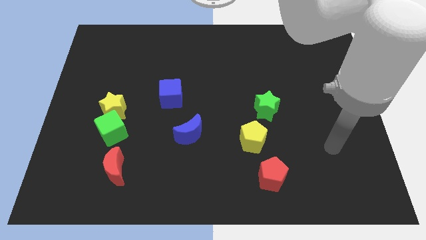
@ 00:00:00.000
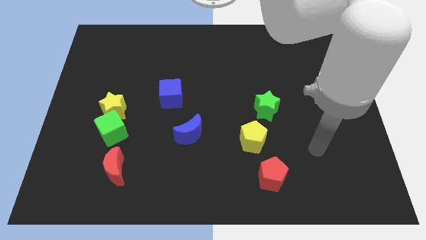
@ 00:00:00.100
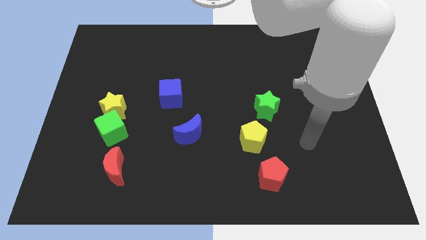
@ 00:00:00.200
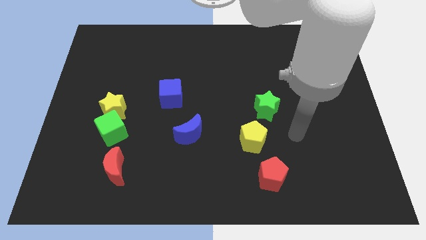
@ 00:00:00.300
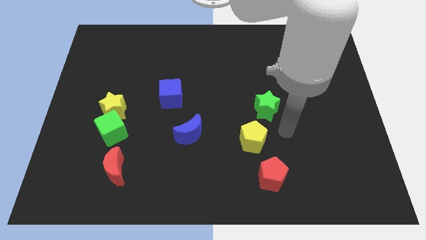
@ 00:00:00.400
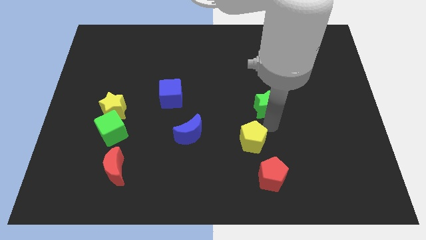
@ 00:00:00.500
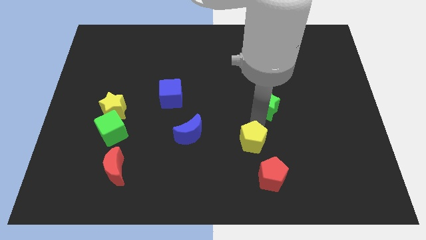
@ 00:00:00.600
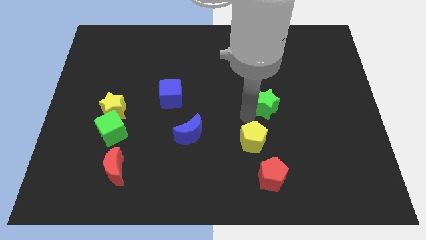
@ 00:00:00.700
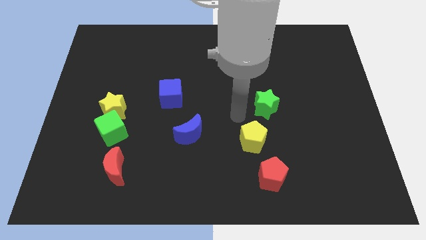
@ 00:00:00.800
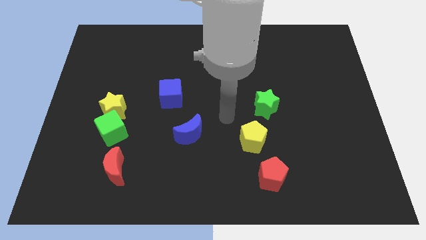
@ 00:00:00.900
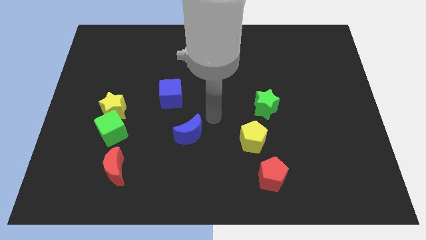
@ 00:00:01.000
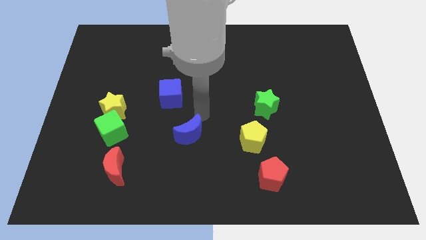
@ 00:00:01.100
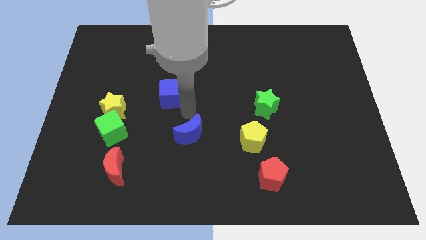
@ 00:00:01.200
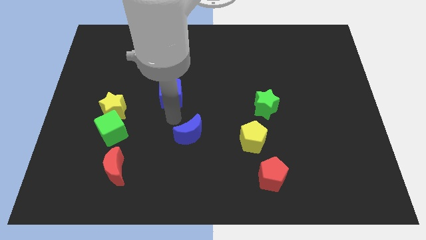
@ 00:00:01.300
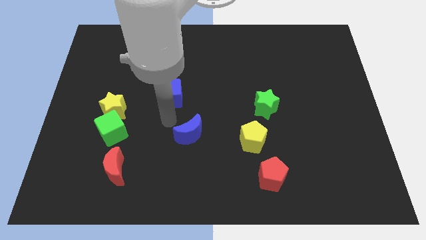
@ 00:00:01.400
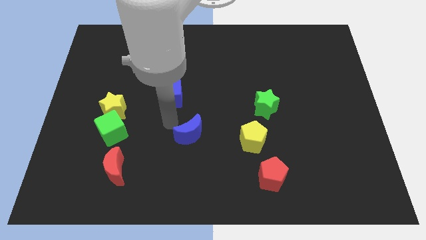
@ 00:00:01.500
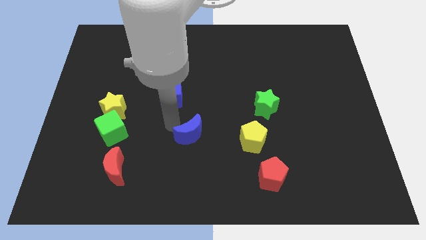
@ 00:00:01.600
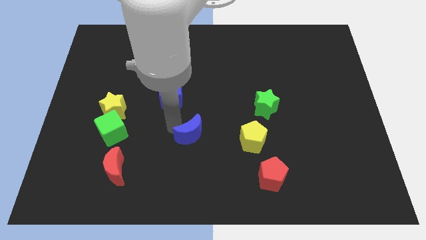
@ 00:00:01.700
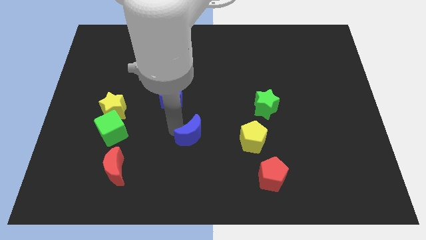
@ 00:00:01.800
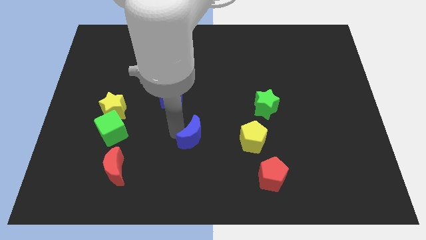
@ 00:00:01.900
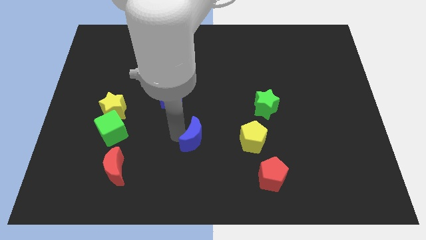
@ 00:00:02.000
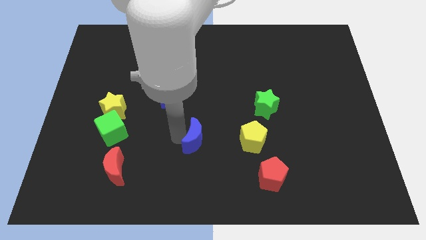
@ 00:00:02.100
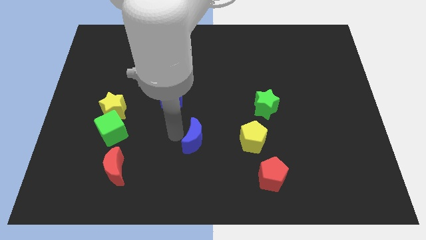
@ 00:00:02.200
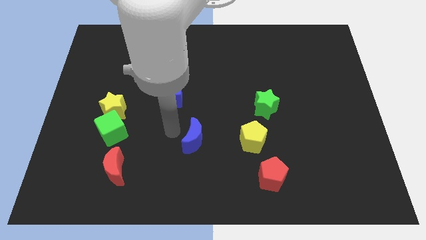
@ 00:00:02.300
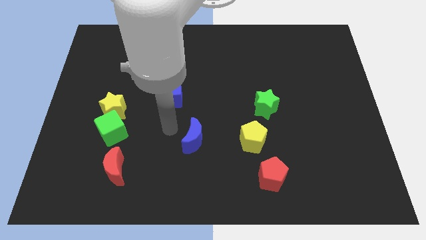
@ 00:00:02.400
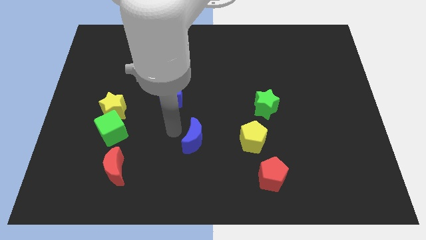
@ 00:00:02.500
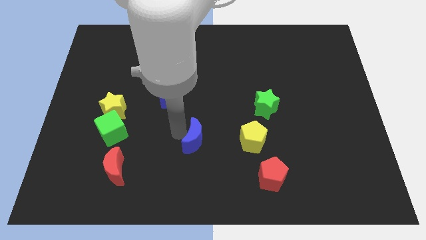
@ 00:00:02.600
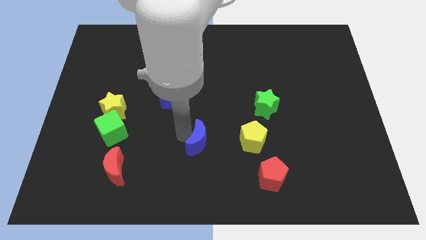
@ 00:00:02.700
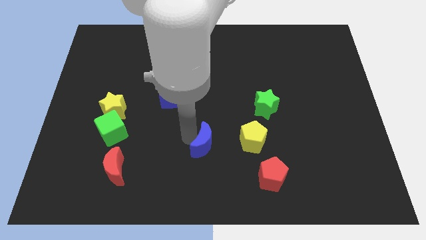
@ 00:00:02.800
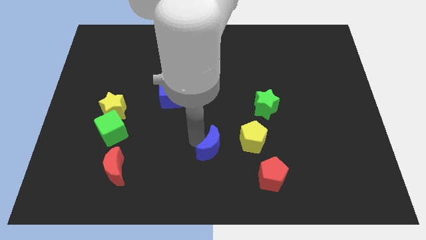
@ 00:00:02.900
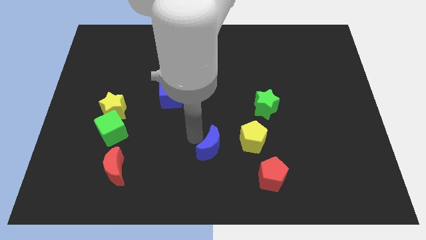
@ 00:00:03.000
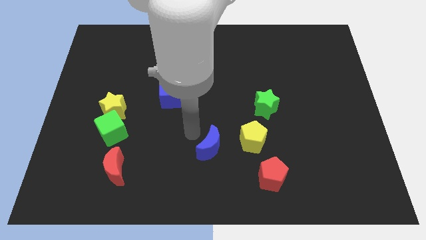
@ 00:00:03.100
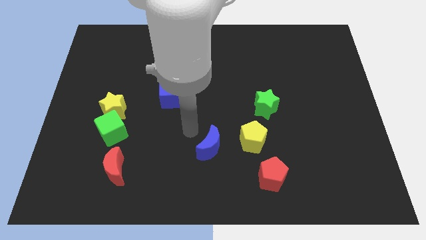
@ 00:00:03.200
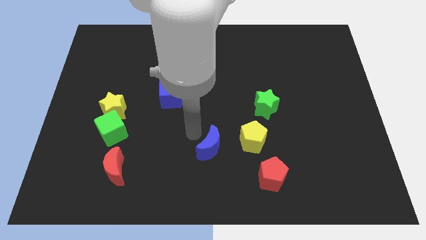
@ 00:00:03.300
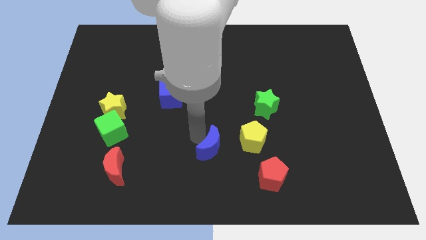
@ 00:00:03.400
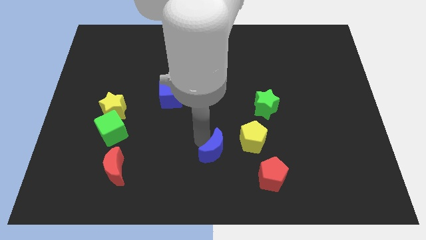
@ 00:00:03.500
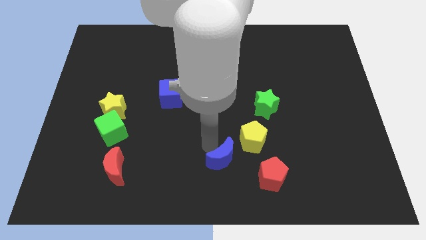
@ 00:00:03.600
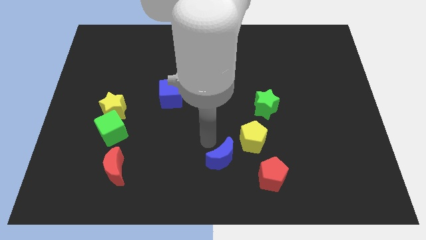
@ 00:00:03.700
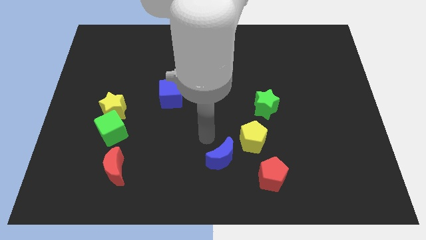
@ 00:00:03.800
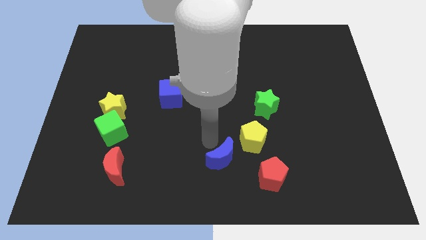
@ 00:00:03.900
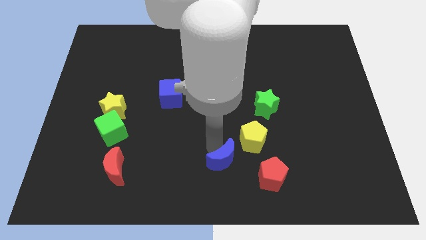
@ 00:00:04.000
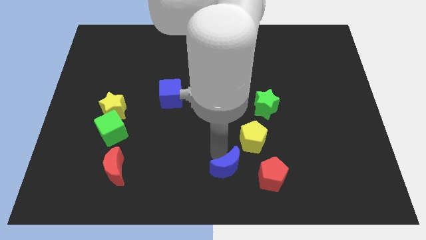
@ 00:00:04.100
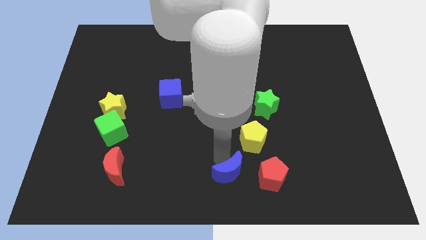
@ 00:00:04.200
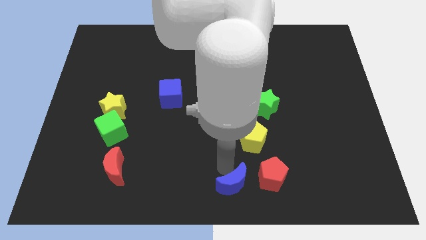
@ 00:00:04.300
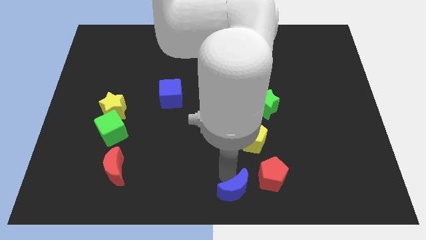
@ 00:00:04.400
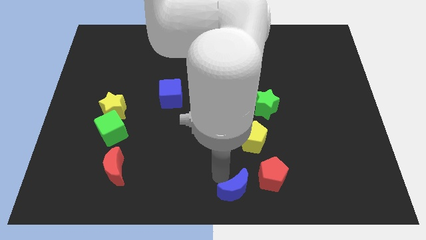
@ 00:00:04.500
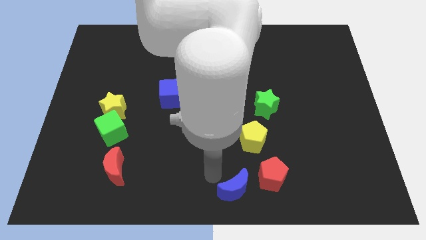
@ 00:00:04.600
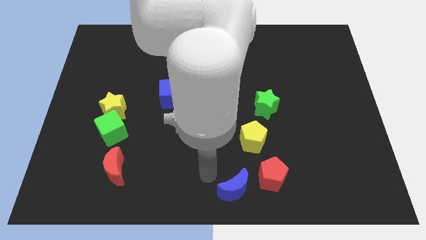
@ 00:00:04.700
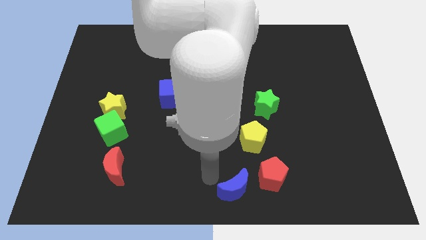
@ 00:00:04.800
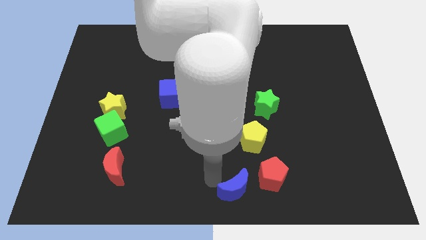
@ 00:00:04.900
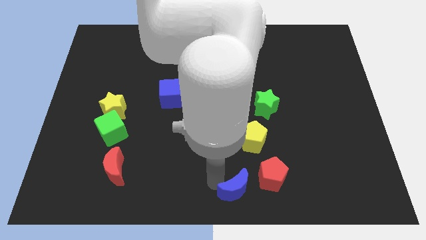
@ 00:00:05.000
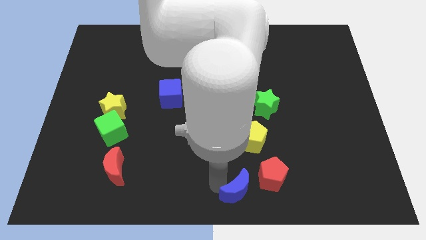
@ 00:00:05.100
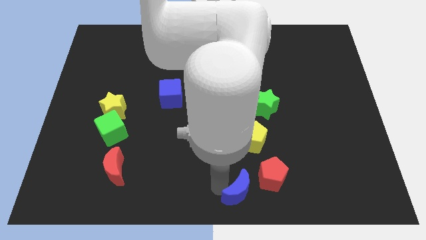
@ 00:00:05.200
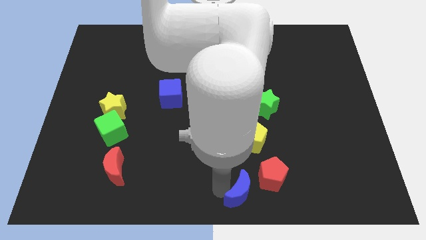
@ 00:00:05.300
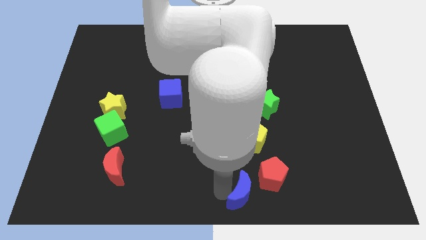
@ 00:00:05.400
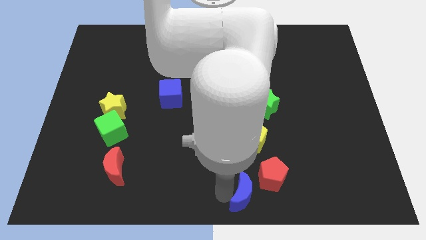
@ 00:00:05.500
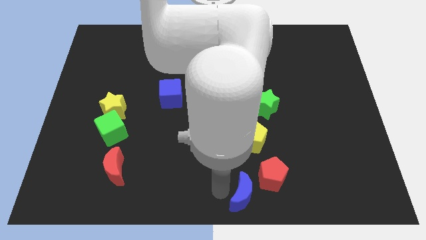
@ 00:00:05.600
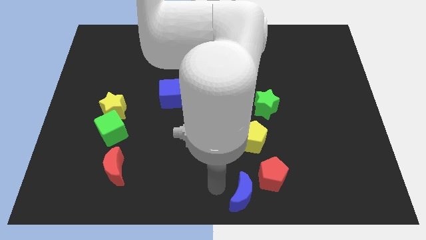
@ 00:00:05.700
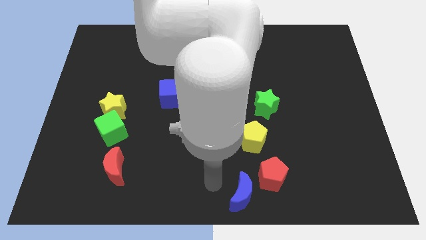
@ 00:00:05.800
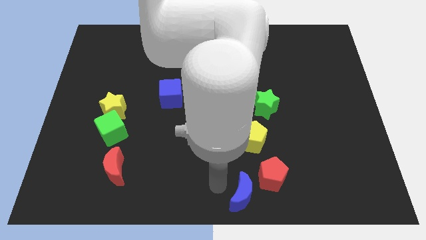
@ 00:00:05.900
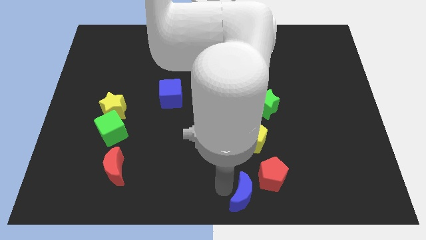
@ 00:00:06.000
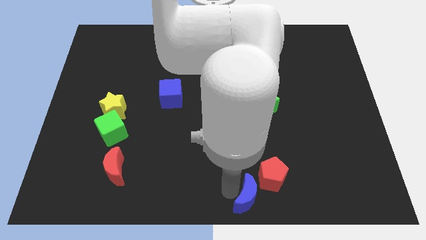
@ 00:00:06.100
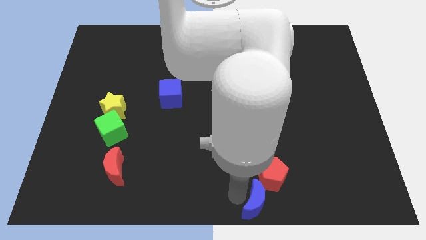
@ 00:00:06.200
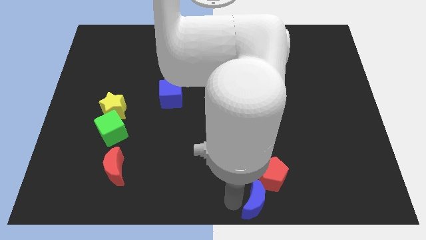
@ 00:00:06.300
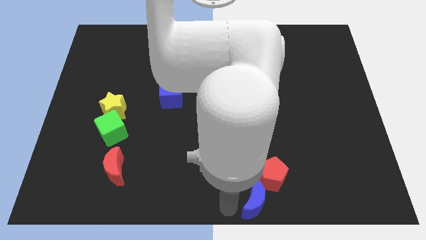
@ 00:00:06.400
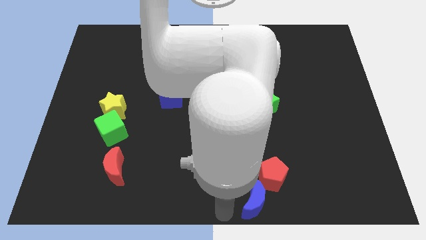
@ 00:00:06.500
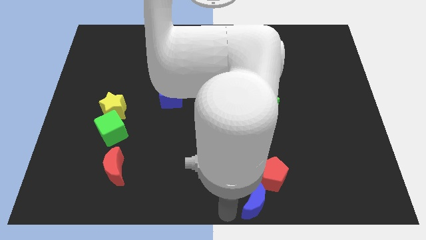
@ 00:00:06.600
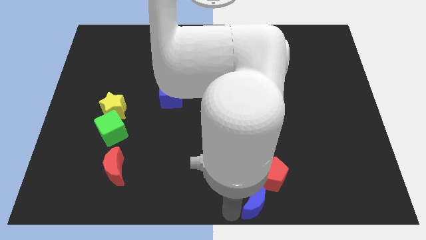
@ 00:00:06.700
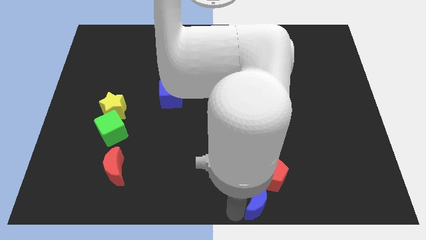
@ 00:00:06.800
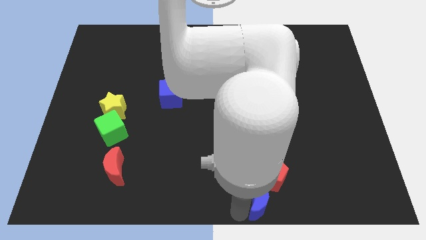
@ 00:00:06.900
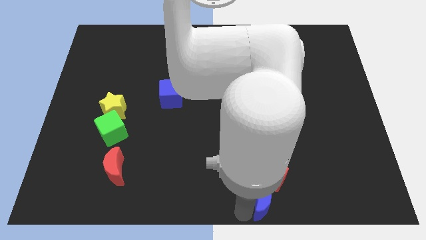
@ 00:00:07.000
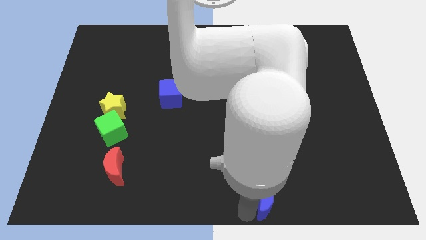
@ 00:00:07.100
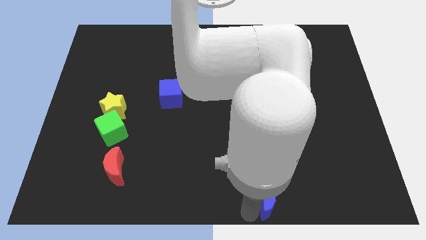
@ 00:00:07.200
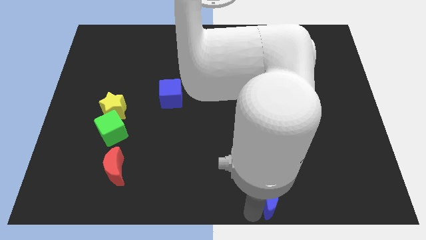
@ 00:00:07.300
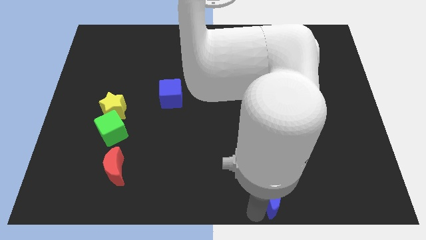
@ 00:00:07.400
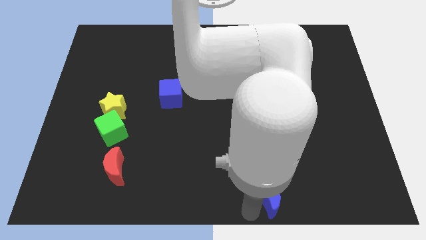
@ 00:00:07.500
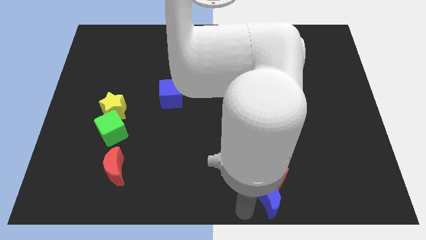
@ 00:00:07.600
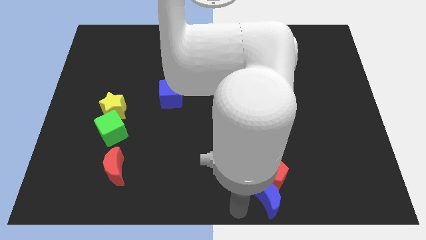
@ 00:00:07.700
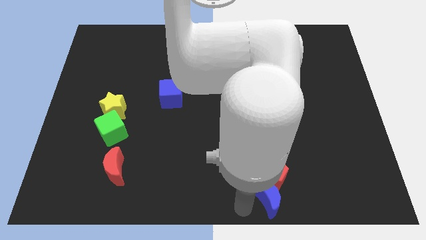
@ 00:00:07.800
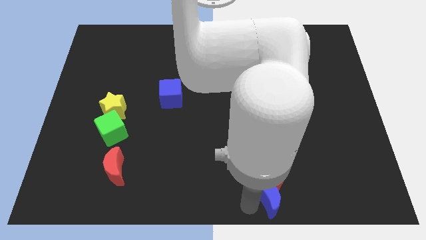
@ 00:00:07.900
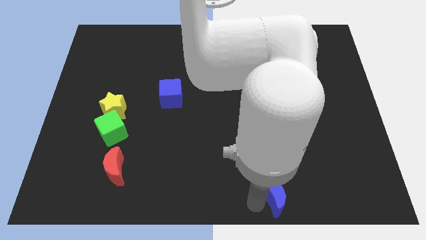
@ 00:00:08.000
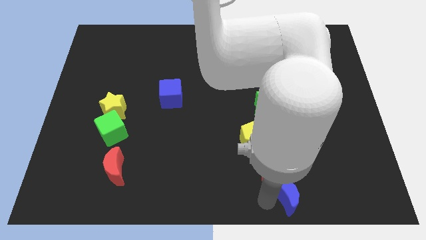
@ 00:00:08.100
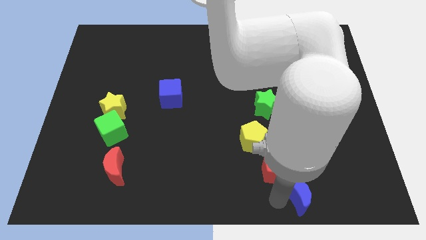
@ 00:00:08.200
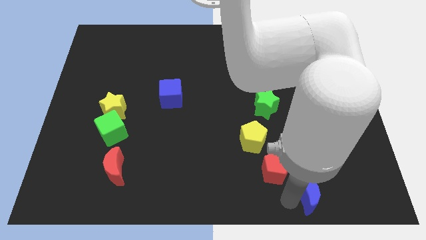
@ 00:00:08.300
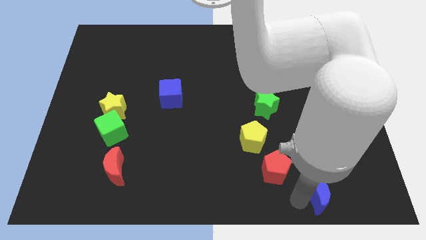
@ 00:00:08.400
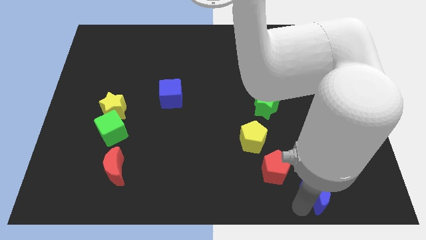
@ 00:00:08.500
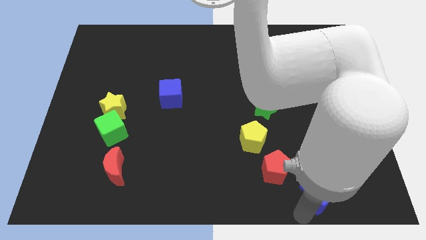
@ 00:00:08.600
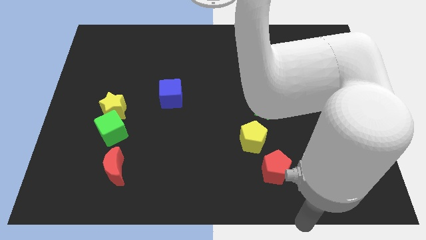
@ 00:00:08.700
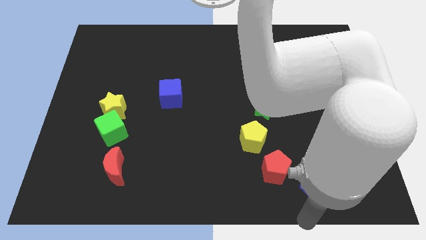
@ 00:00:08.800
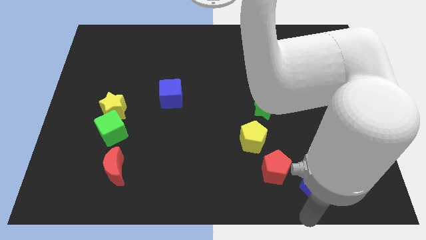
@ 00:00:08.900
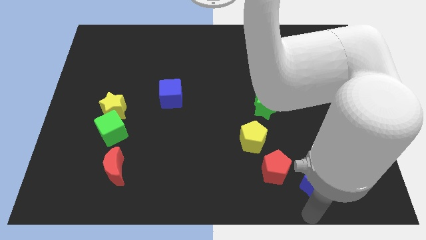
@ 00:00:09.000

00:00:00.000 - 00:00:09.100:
slide the blue moon to the right of the red pentagon
